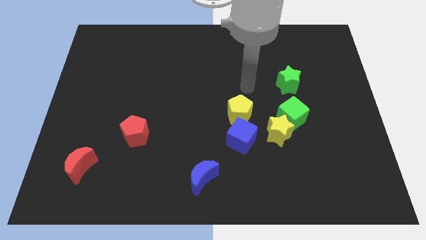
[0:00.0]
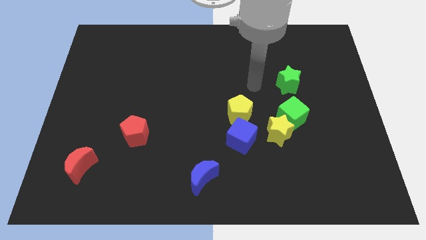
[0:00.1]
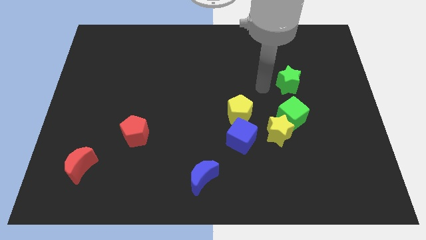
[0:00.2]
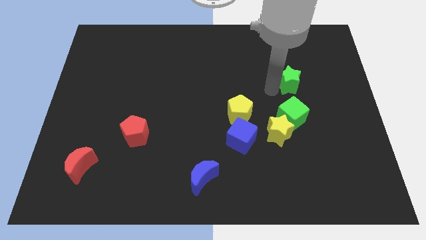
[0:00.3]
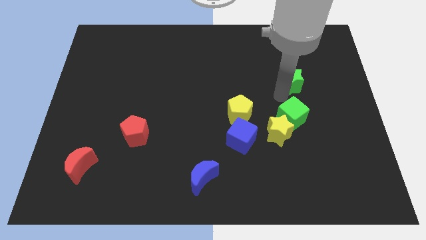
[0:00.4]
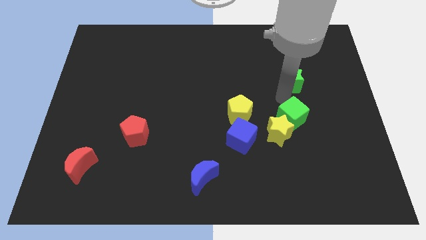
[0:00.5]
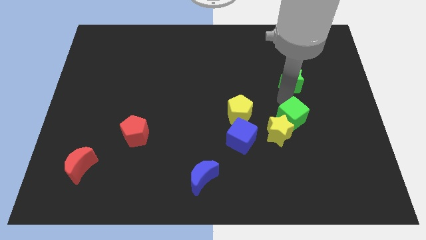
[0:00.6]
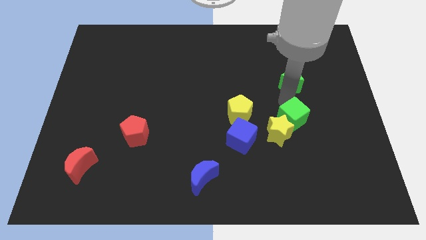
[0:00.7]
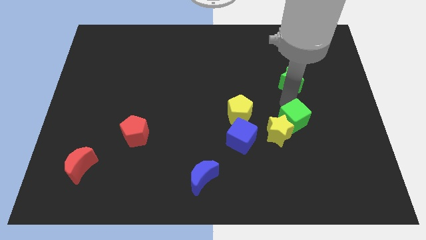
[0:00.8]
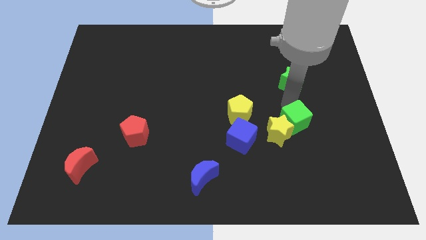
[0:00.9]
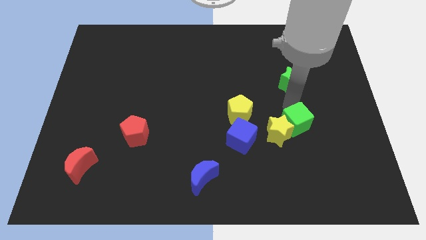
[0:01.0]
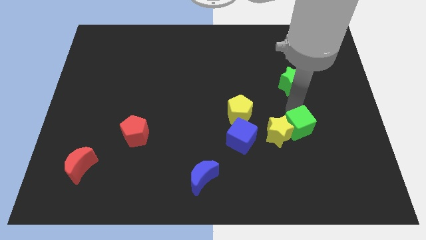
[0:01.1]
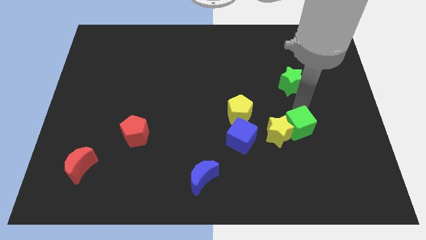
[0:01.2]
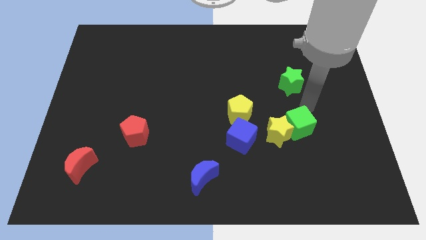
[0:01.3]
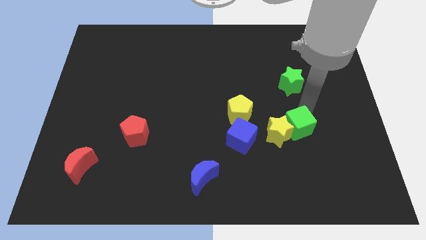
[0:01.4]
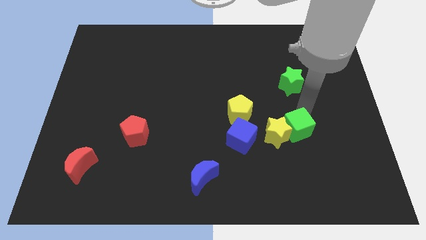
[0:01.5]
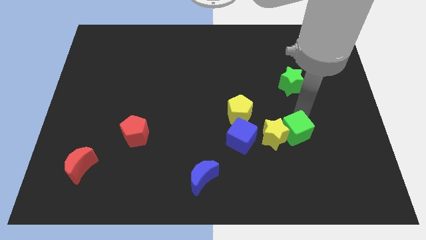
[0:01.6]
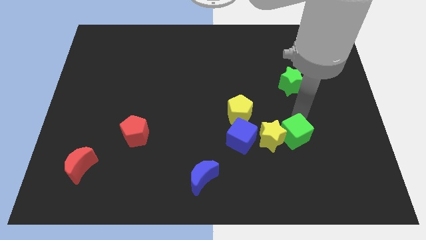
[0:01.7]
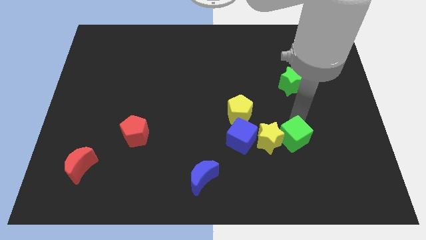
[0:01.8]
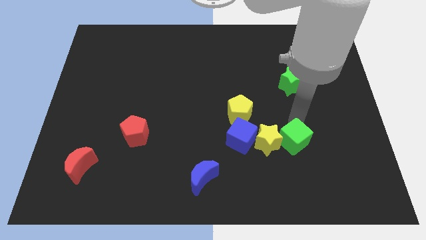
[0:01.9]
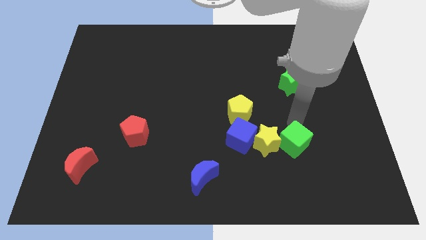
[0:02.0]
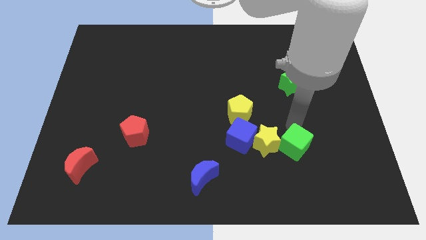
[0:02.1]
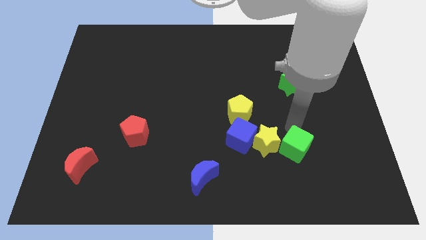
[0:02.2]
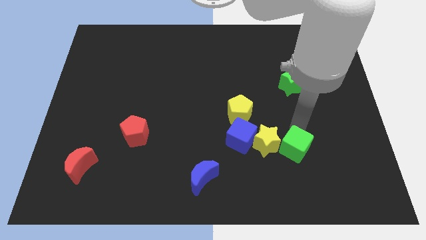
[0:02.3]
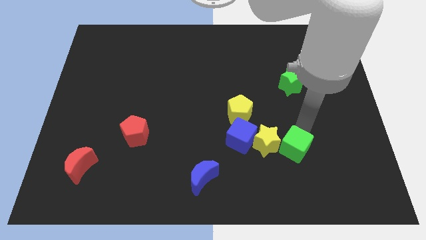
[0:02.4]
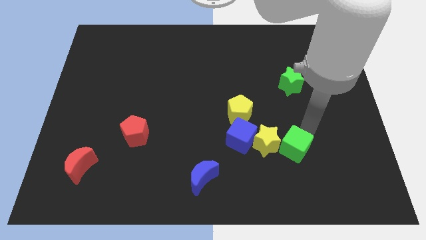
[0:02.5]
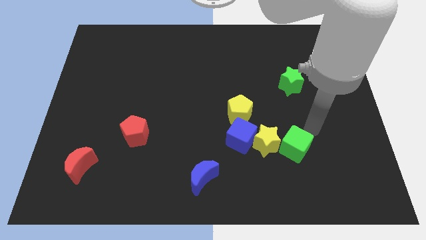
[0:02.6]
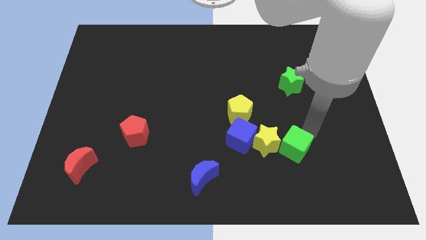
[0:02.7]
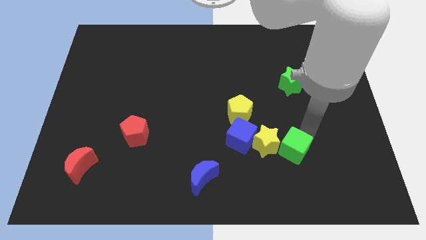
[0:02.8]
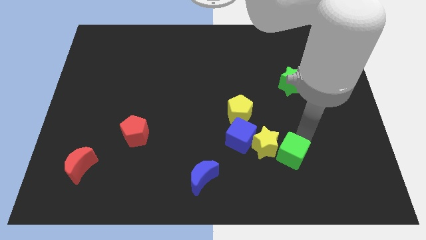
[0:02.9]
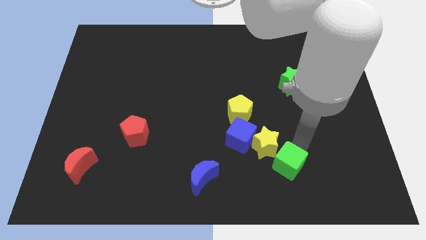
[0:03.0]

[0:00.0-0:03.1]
push the green cube a little bit down and left

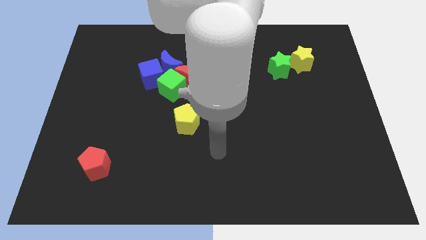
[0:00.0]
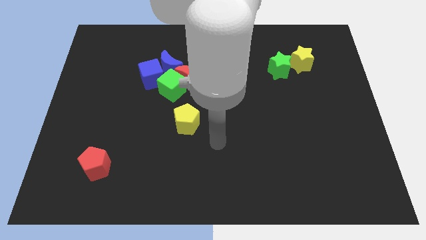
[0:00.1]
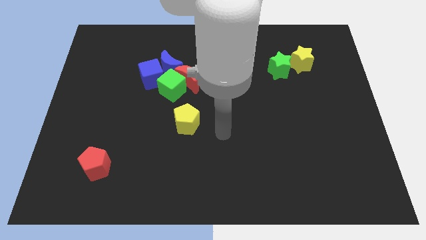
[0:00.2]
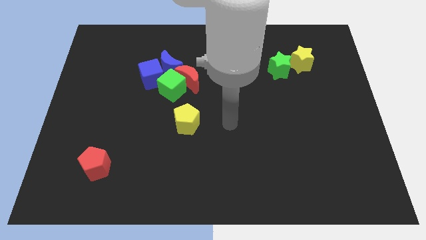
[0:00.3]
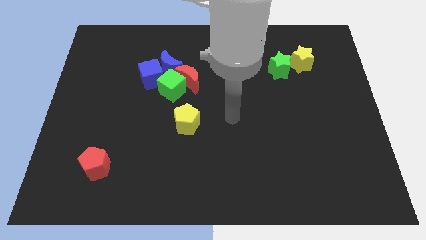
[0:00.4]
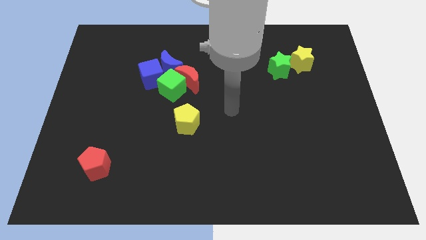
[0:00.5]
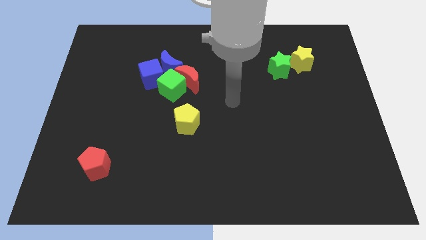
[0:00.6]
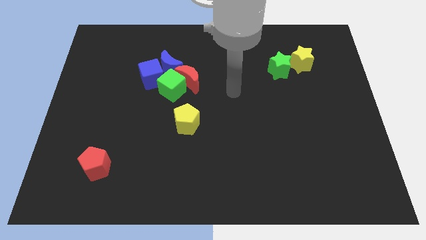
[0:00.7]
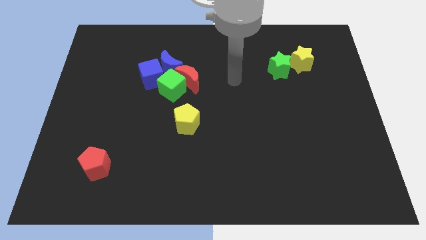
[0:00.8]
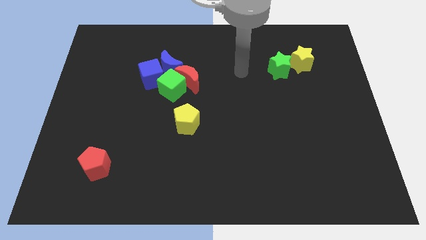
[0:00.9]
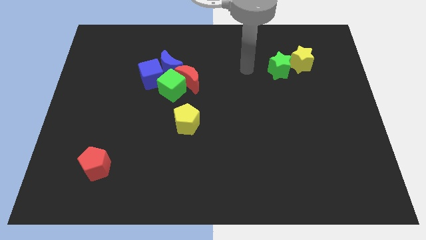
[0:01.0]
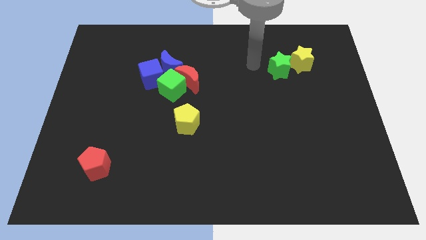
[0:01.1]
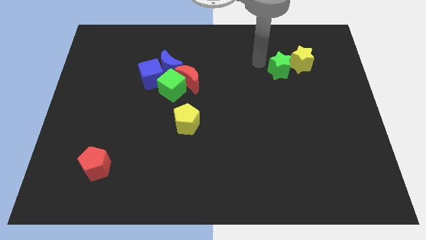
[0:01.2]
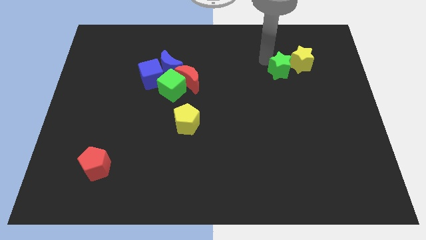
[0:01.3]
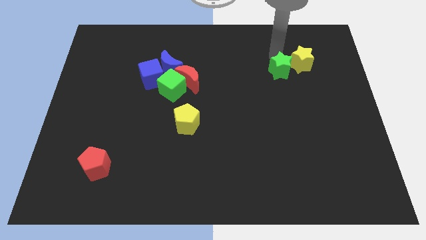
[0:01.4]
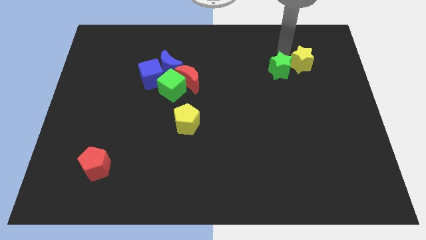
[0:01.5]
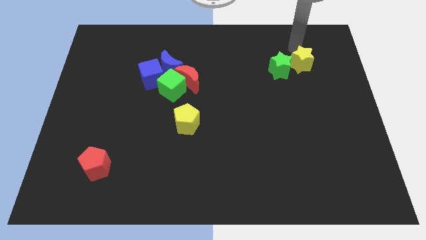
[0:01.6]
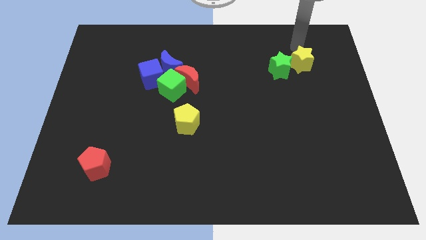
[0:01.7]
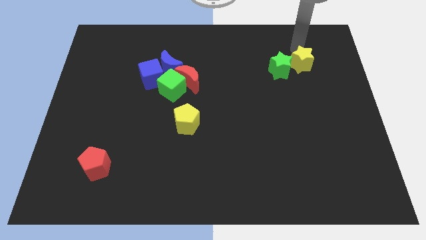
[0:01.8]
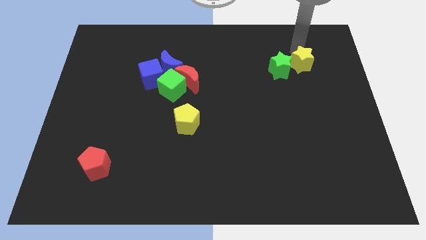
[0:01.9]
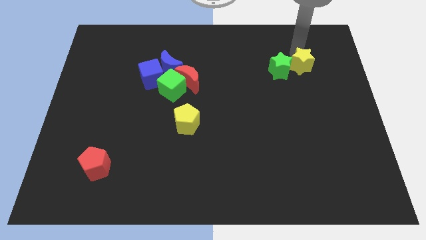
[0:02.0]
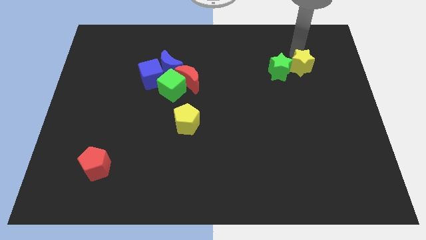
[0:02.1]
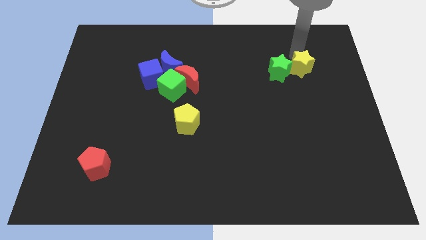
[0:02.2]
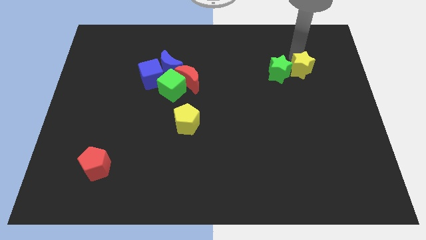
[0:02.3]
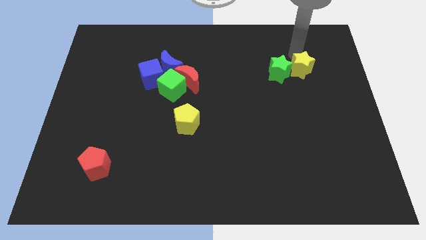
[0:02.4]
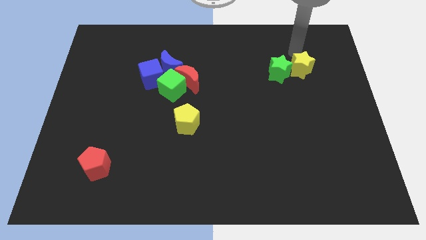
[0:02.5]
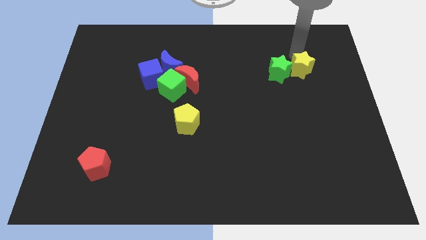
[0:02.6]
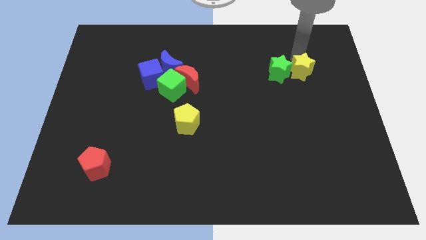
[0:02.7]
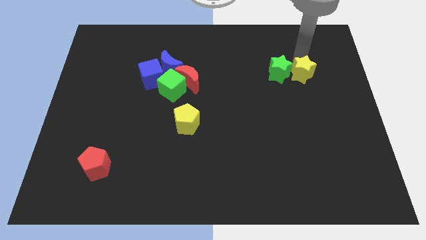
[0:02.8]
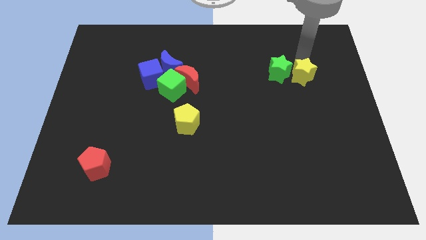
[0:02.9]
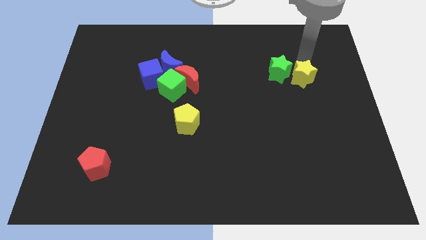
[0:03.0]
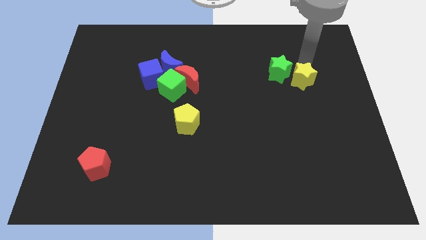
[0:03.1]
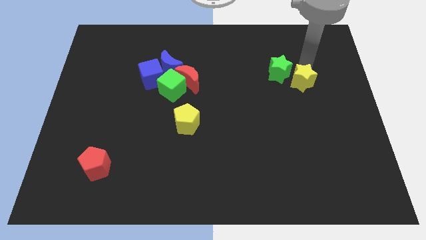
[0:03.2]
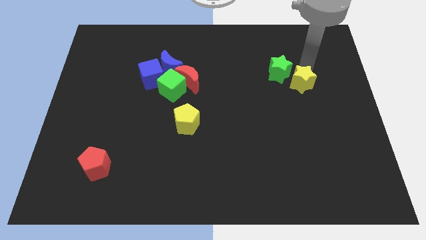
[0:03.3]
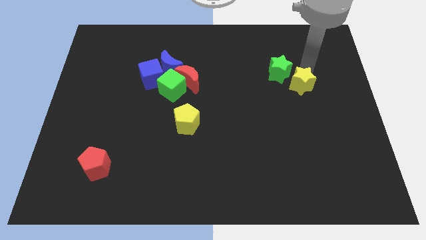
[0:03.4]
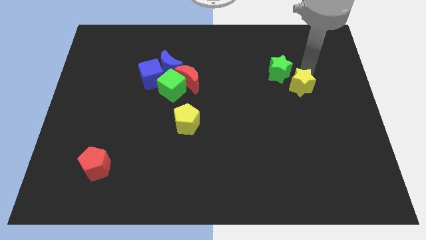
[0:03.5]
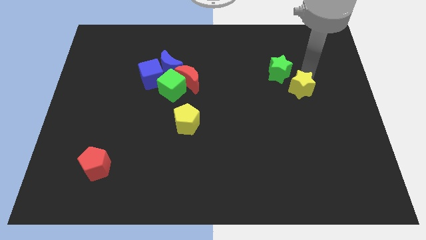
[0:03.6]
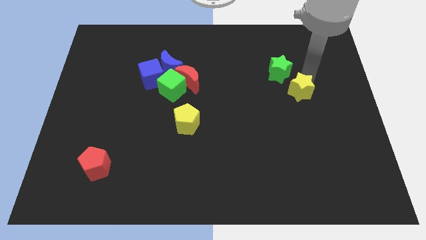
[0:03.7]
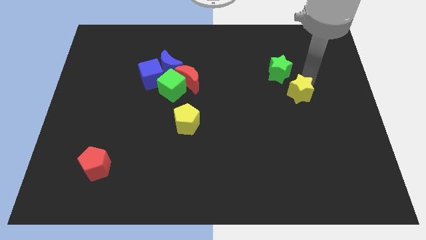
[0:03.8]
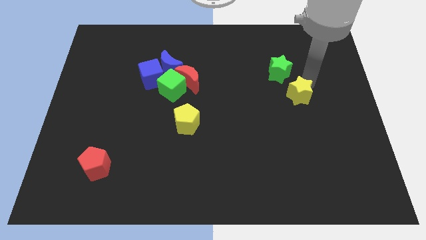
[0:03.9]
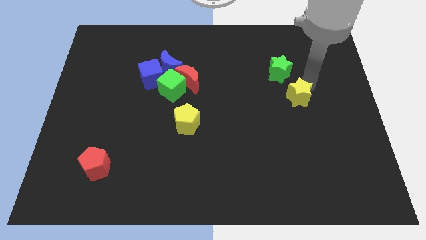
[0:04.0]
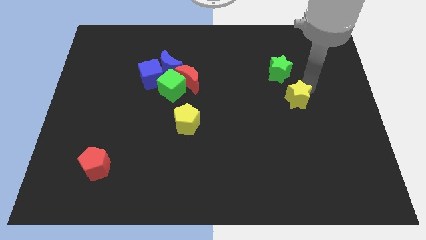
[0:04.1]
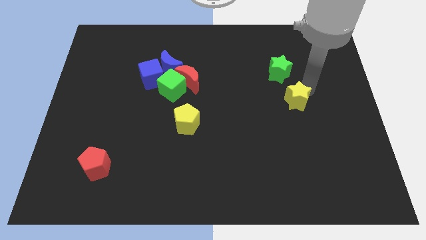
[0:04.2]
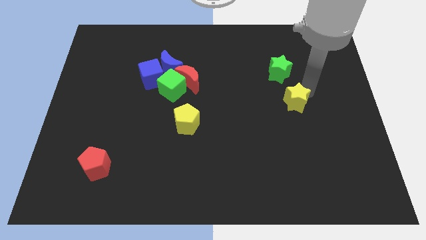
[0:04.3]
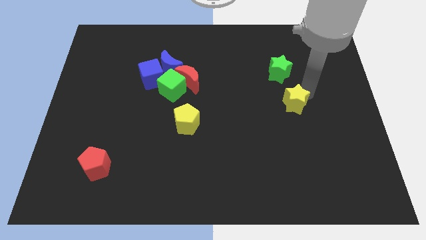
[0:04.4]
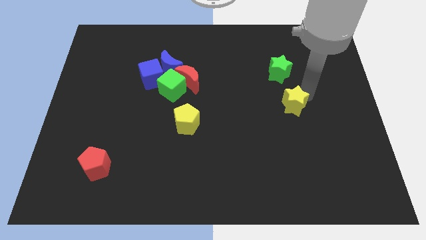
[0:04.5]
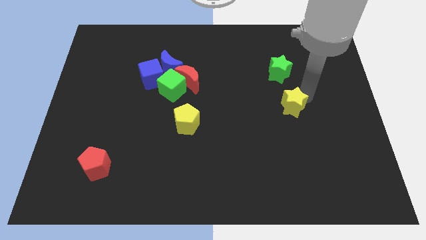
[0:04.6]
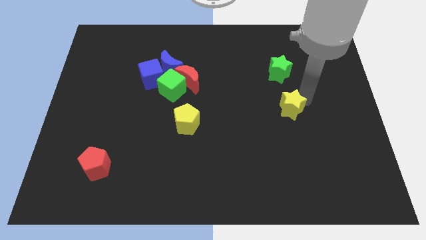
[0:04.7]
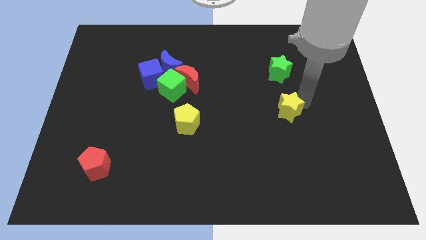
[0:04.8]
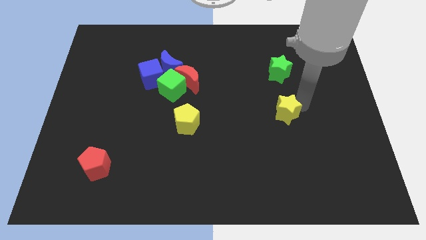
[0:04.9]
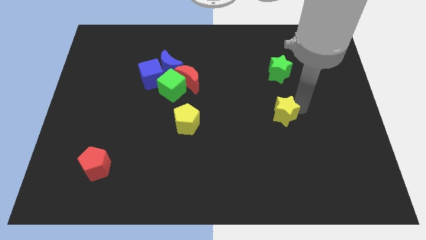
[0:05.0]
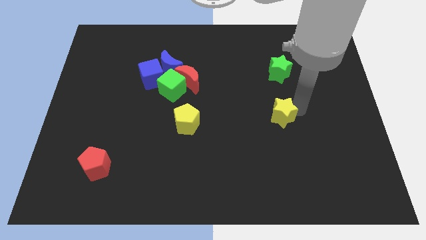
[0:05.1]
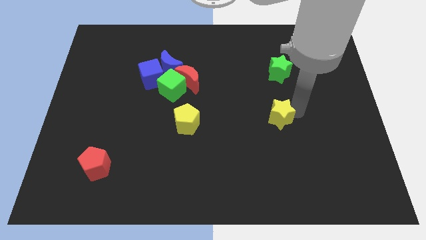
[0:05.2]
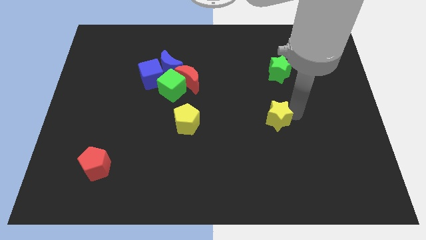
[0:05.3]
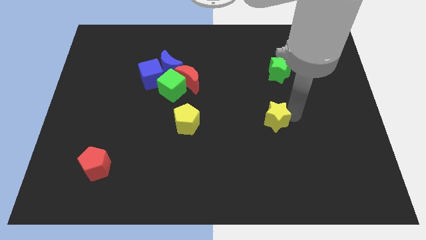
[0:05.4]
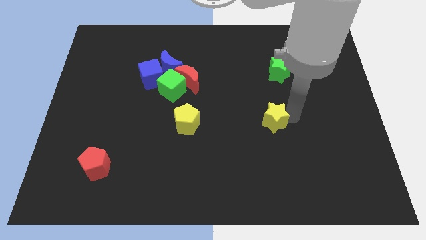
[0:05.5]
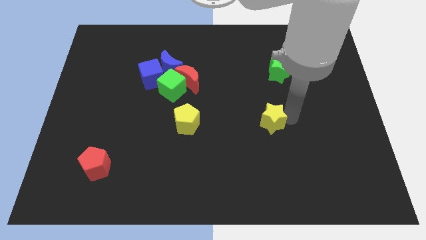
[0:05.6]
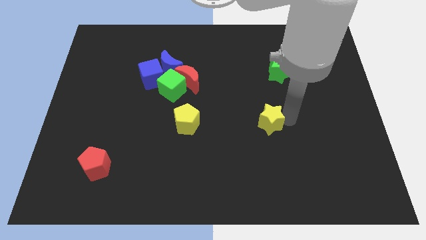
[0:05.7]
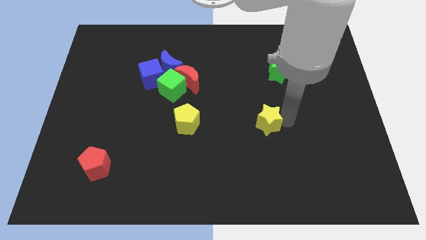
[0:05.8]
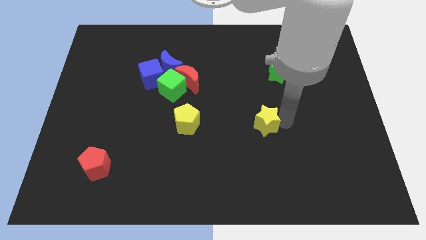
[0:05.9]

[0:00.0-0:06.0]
move the yellow star downwards and to the left
